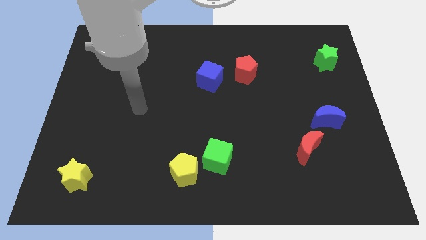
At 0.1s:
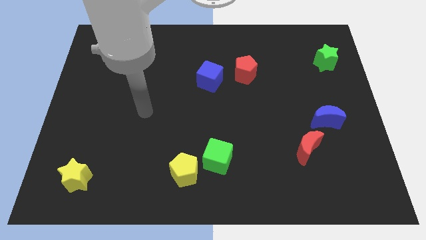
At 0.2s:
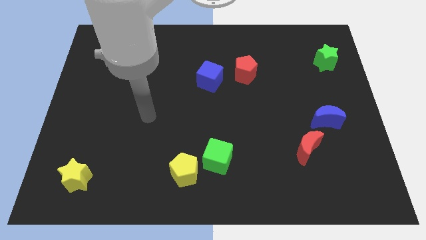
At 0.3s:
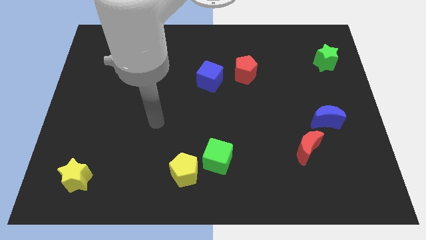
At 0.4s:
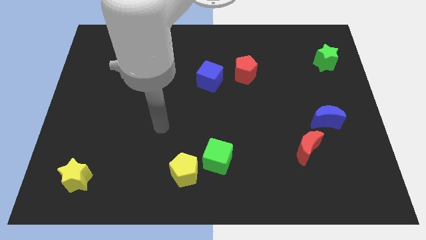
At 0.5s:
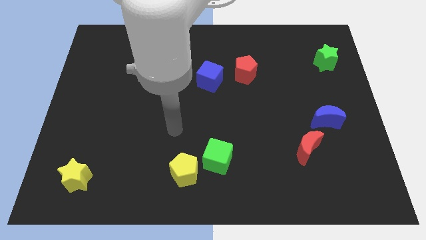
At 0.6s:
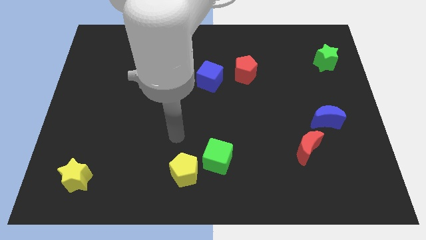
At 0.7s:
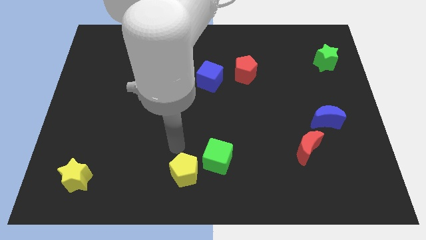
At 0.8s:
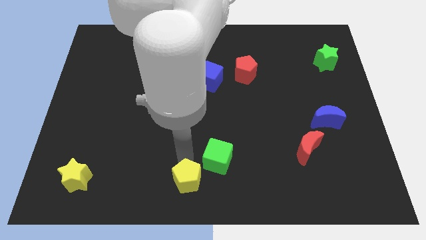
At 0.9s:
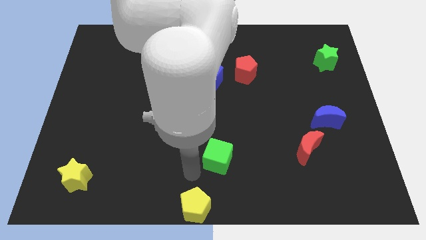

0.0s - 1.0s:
separate the green cube from the yellow pentagon

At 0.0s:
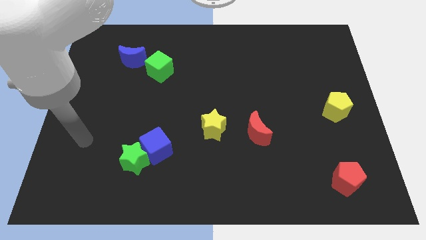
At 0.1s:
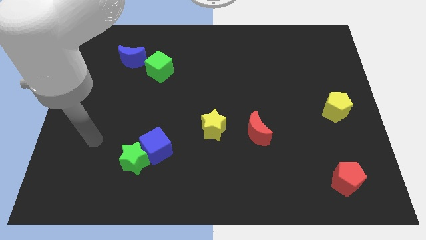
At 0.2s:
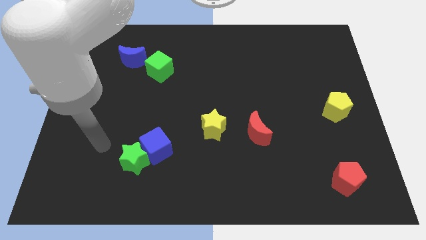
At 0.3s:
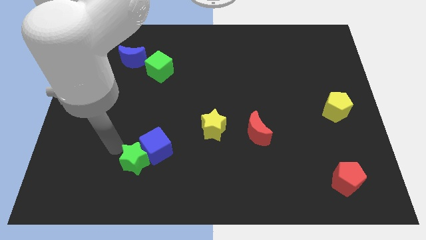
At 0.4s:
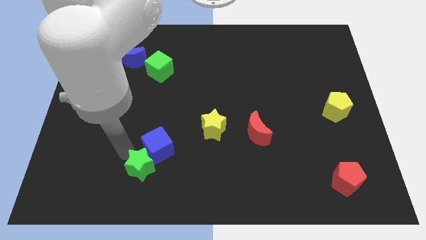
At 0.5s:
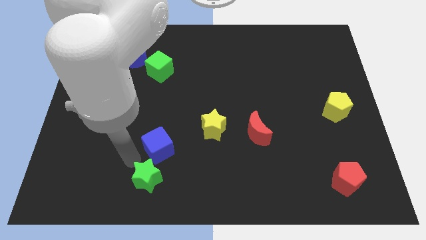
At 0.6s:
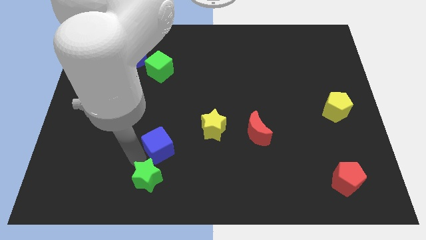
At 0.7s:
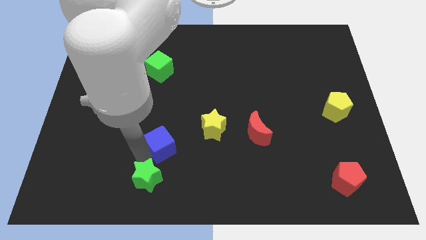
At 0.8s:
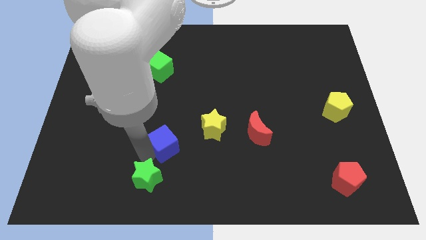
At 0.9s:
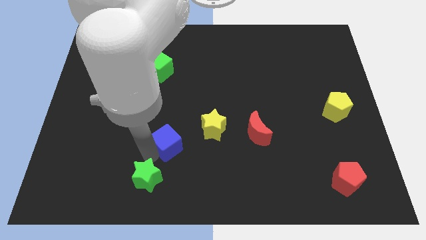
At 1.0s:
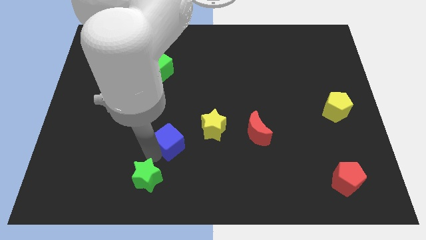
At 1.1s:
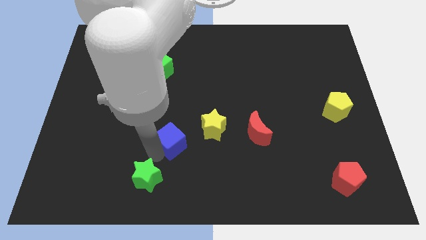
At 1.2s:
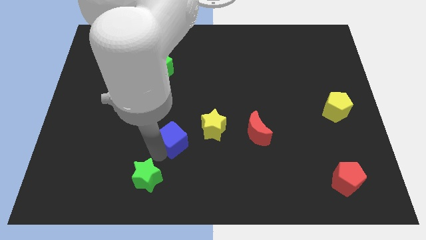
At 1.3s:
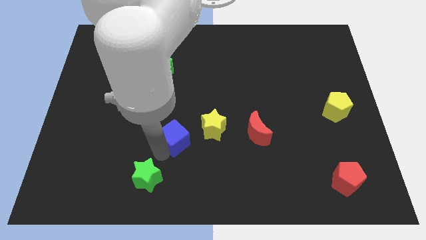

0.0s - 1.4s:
pull the blue cube apart from the green star

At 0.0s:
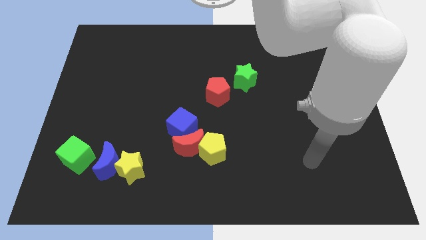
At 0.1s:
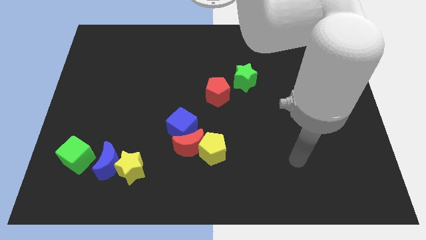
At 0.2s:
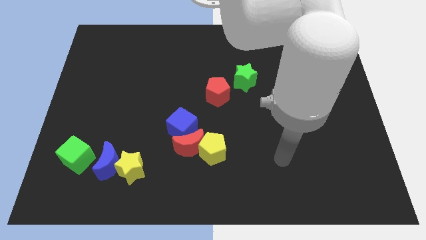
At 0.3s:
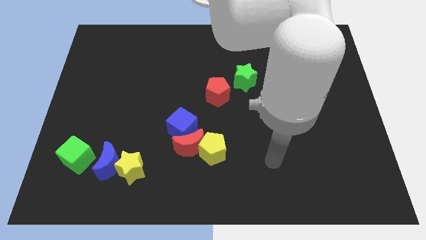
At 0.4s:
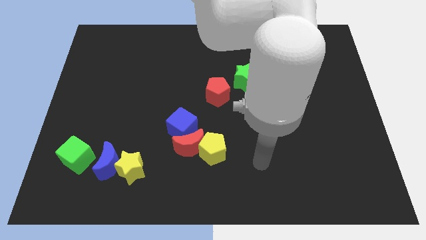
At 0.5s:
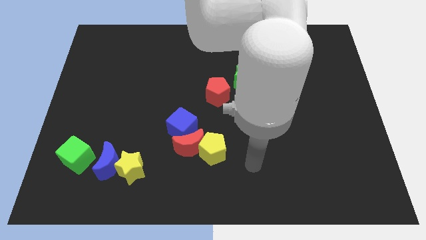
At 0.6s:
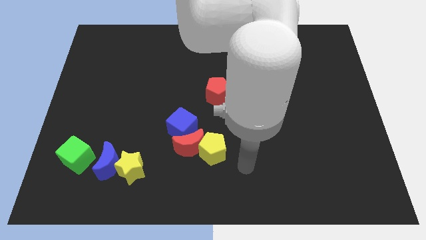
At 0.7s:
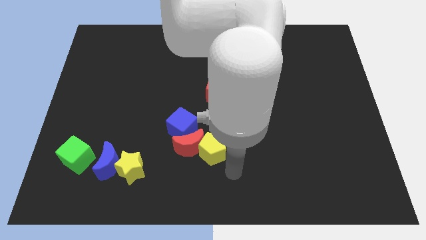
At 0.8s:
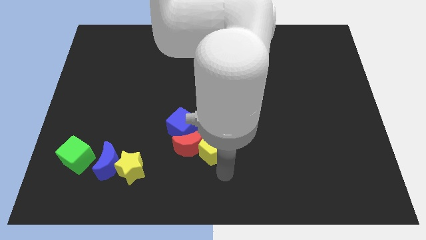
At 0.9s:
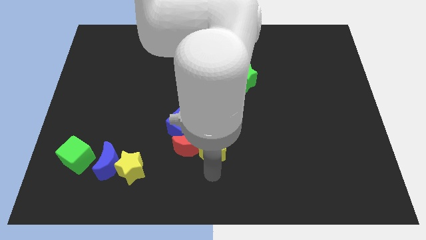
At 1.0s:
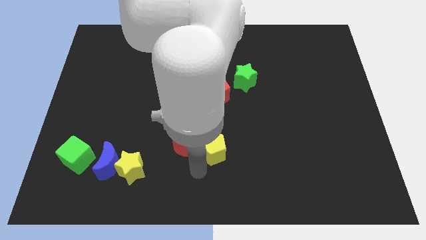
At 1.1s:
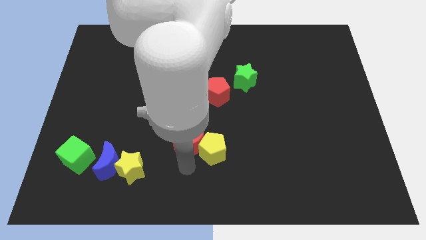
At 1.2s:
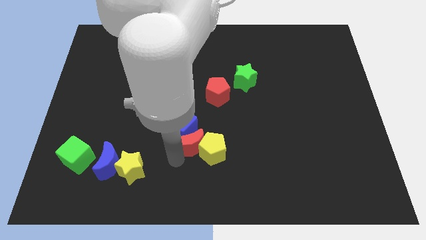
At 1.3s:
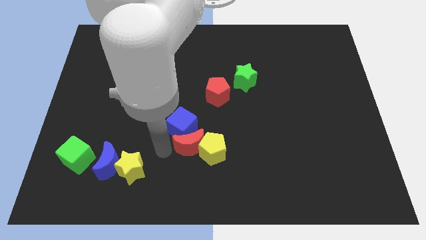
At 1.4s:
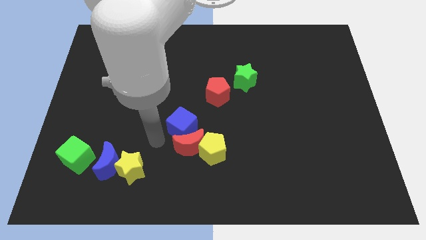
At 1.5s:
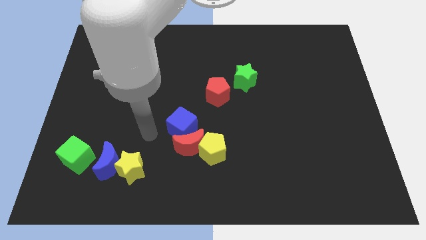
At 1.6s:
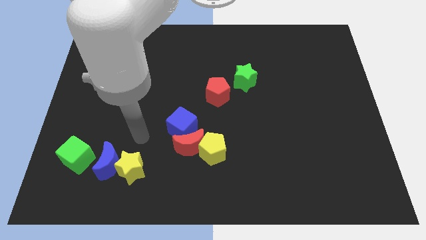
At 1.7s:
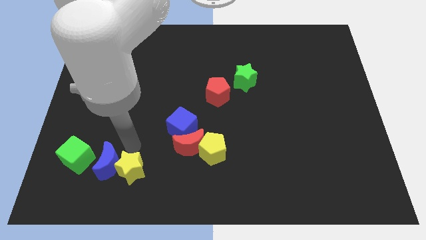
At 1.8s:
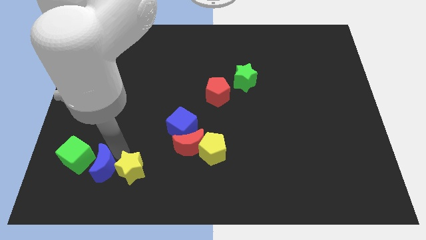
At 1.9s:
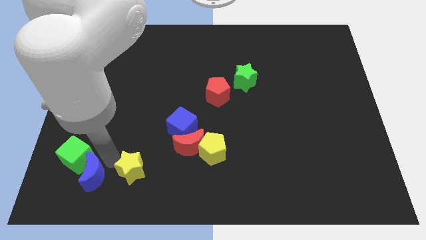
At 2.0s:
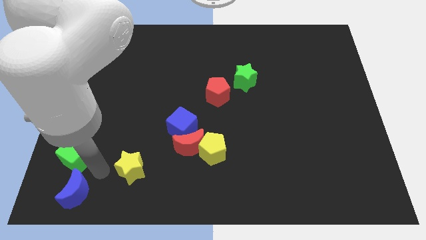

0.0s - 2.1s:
separate the yellow star from the blue moon

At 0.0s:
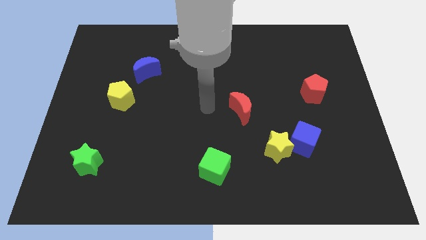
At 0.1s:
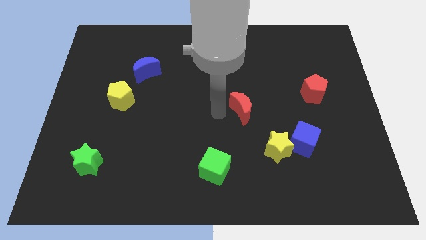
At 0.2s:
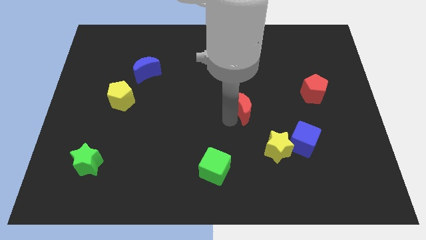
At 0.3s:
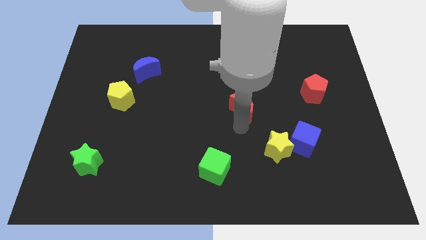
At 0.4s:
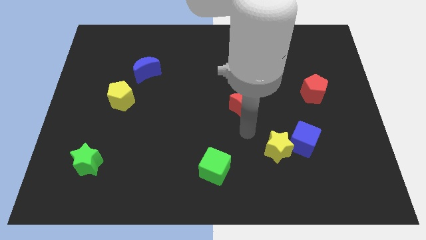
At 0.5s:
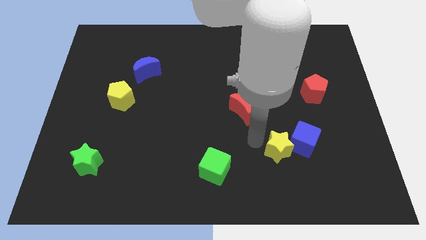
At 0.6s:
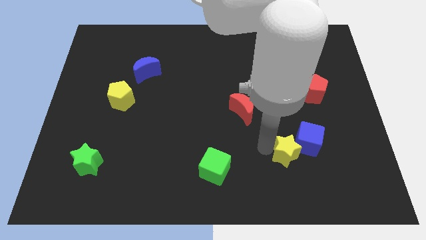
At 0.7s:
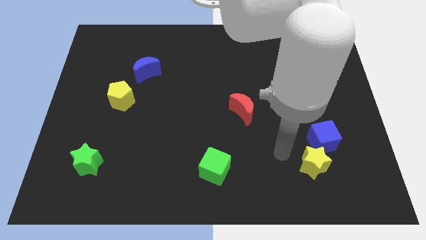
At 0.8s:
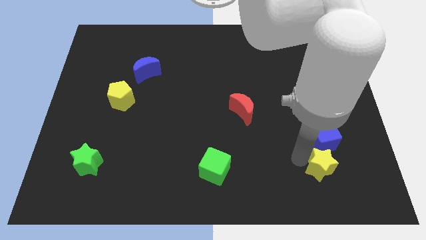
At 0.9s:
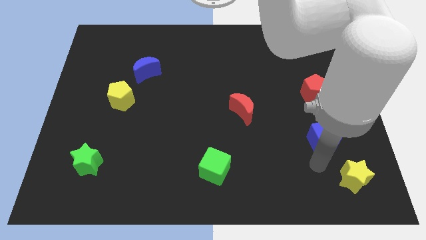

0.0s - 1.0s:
move the blue cube away from the yellow star

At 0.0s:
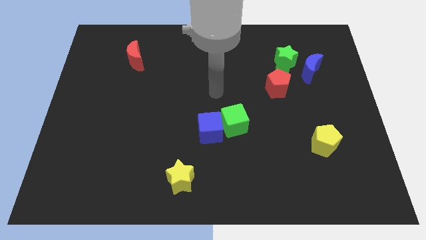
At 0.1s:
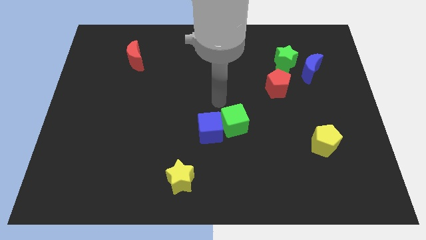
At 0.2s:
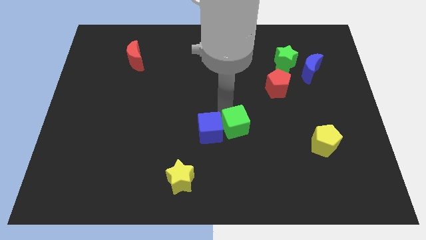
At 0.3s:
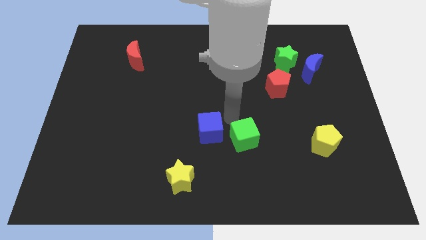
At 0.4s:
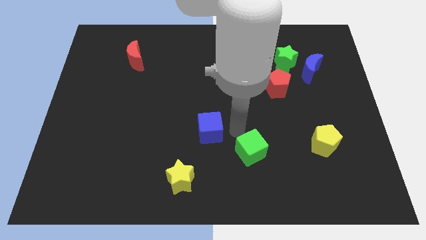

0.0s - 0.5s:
separate the blue cube from the green cube

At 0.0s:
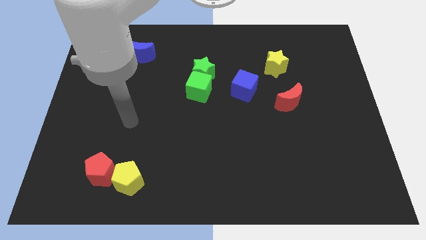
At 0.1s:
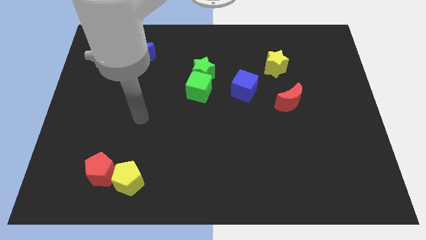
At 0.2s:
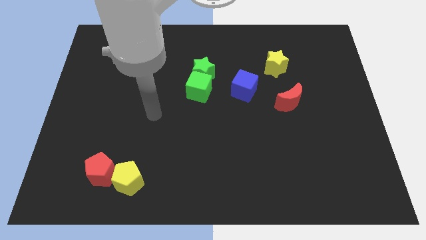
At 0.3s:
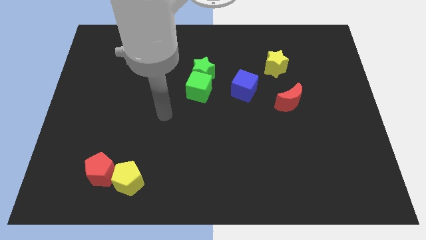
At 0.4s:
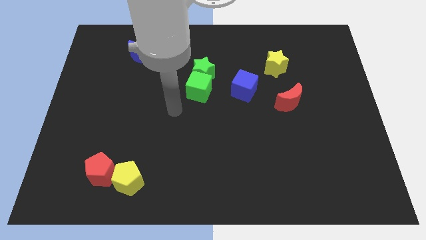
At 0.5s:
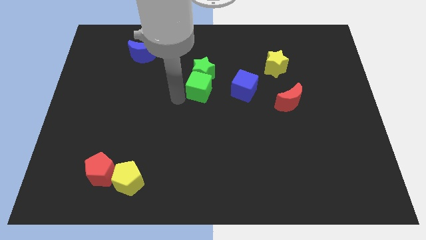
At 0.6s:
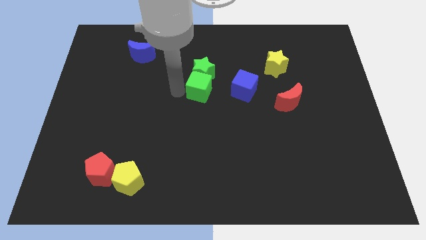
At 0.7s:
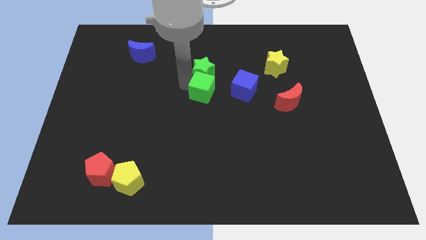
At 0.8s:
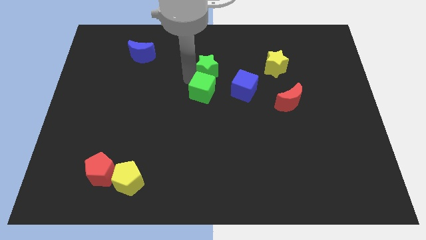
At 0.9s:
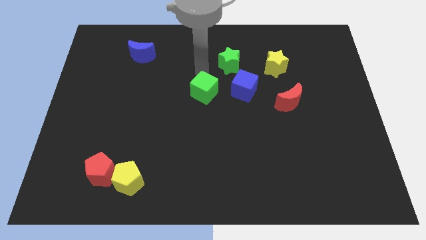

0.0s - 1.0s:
move the green cube away from the green star

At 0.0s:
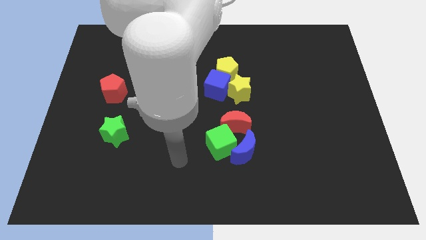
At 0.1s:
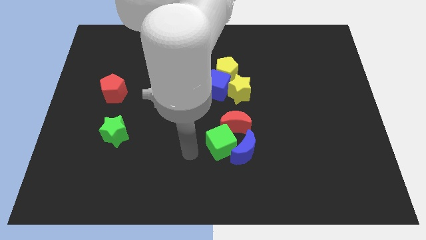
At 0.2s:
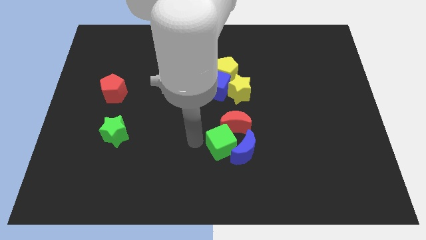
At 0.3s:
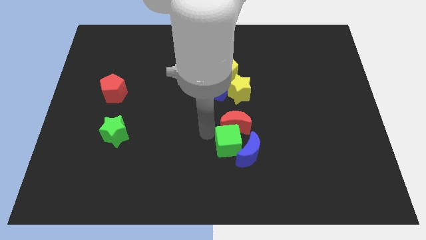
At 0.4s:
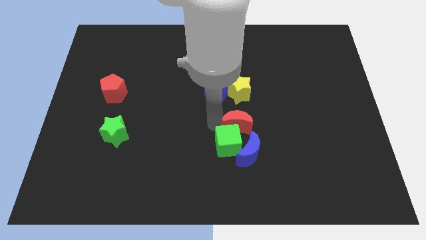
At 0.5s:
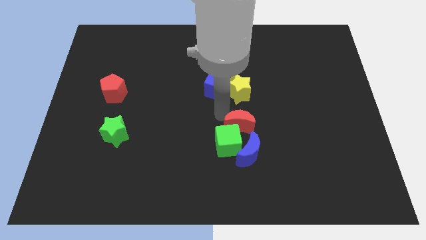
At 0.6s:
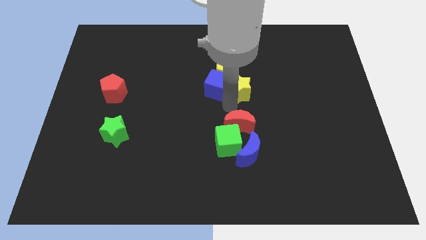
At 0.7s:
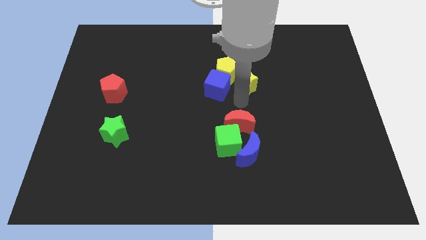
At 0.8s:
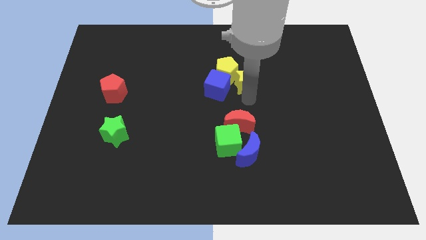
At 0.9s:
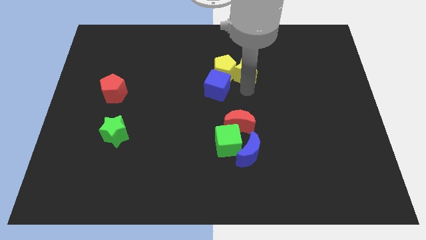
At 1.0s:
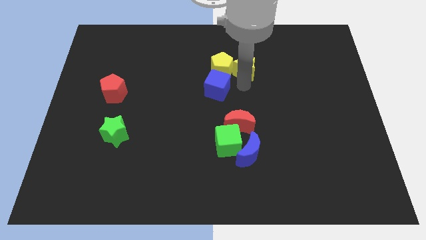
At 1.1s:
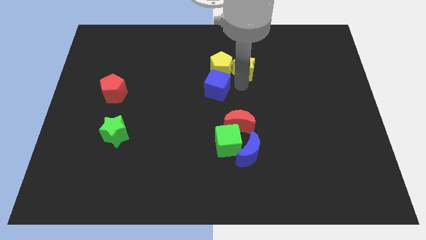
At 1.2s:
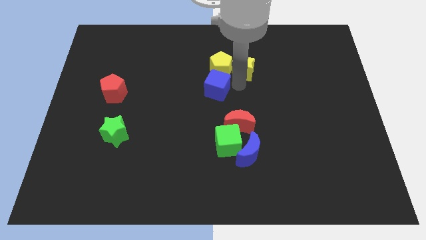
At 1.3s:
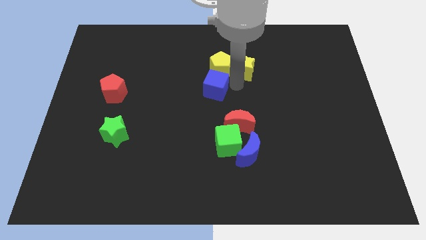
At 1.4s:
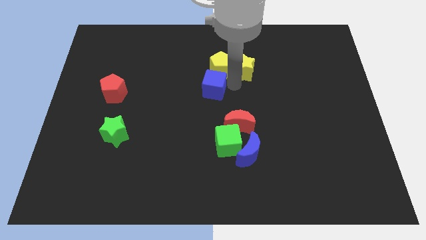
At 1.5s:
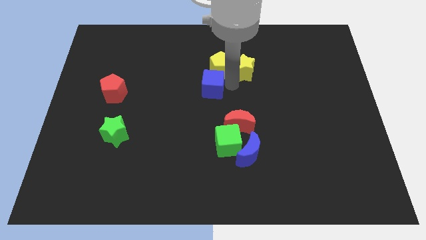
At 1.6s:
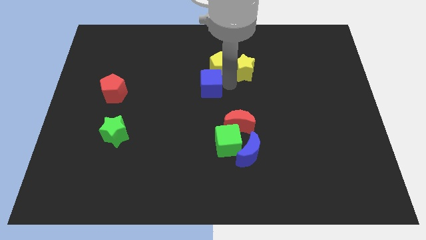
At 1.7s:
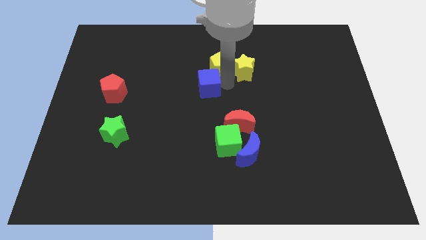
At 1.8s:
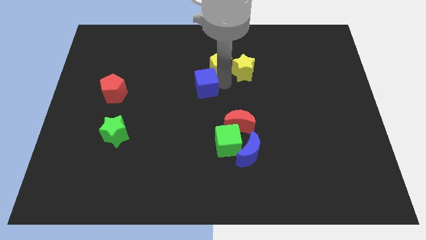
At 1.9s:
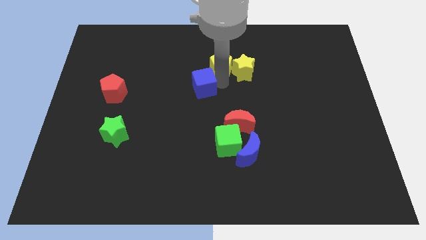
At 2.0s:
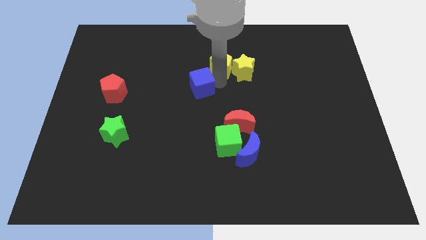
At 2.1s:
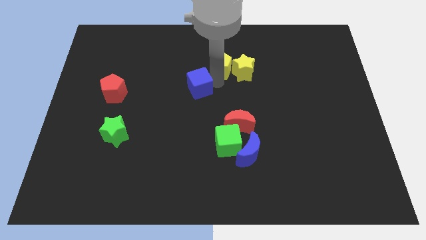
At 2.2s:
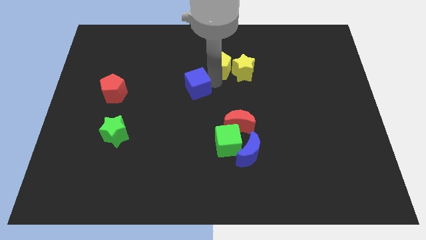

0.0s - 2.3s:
separate the blue cube from the yellow pentagon and yellow star

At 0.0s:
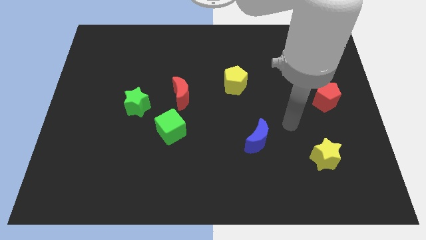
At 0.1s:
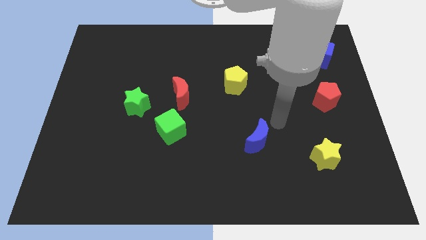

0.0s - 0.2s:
separate the red moon from the green cube
